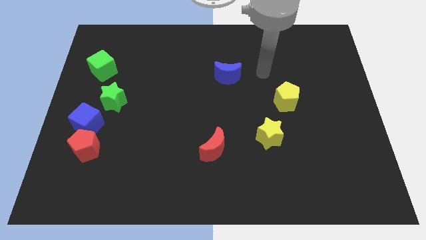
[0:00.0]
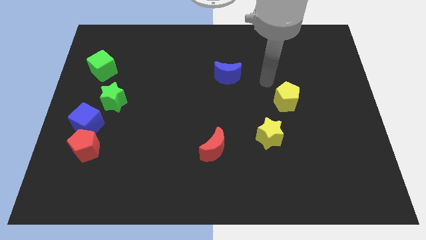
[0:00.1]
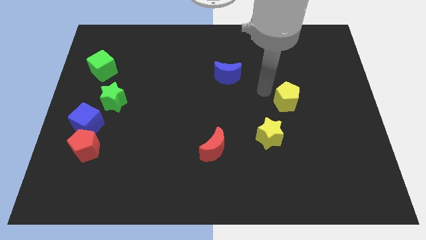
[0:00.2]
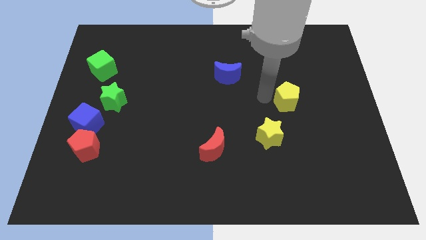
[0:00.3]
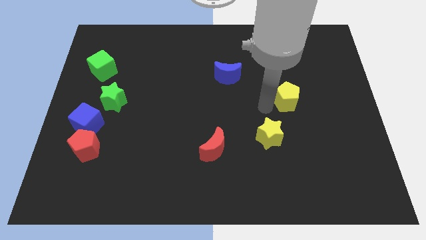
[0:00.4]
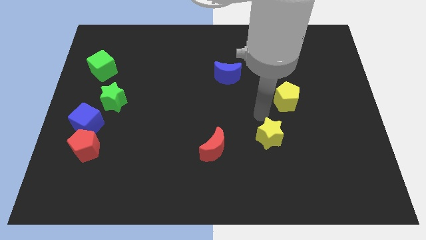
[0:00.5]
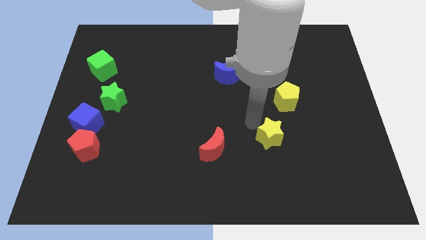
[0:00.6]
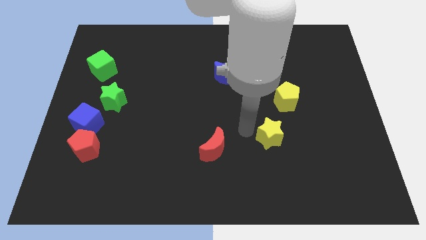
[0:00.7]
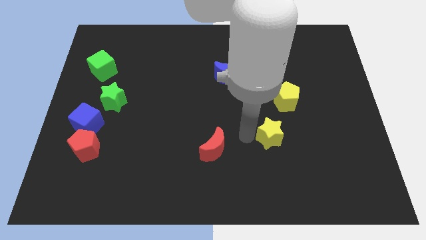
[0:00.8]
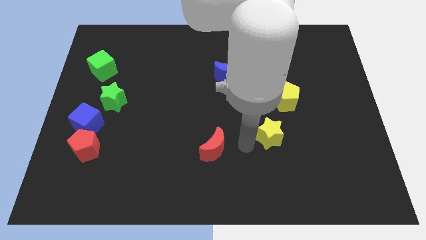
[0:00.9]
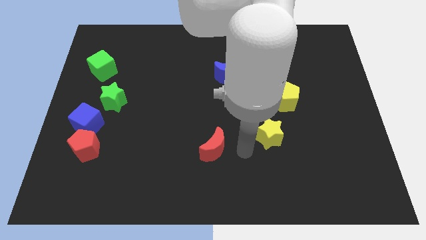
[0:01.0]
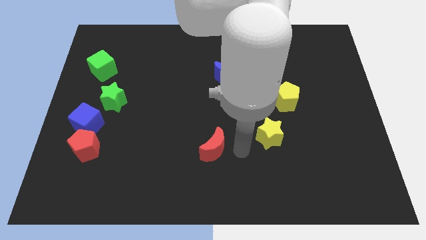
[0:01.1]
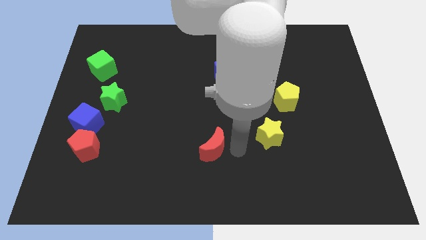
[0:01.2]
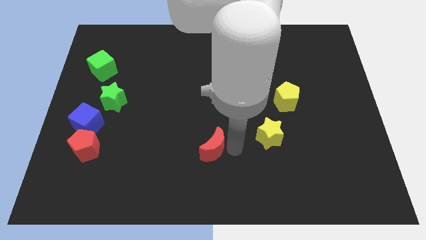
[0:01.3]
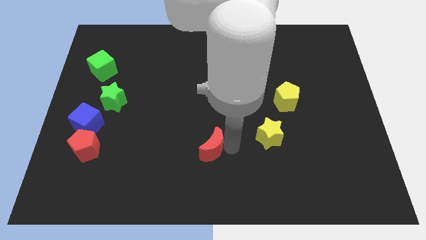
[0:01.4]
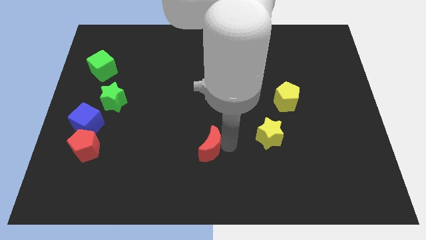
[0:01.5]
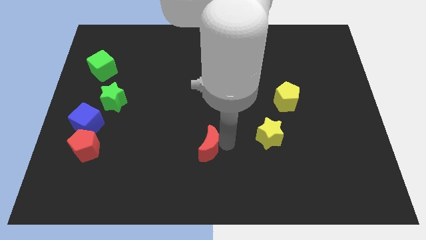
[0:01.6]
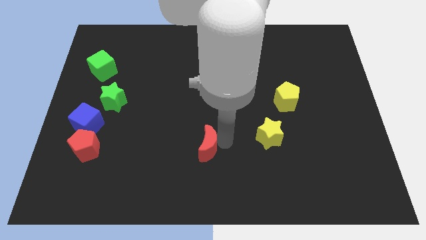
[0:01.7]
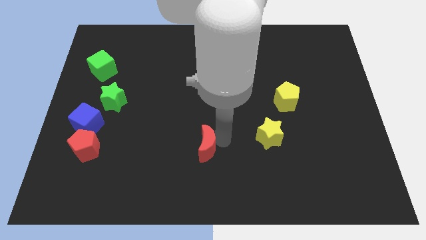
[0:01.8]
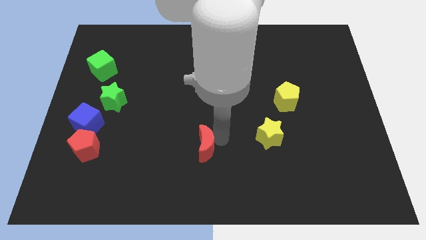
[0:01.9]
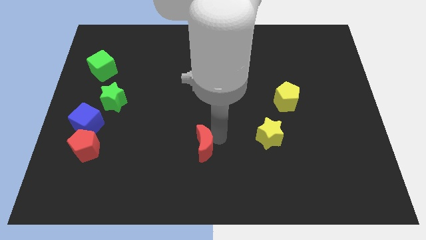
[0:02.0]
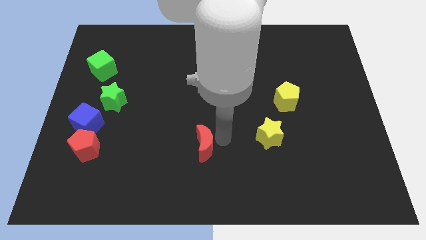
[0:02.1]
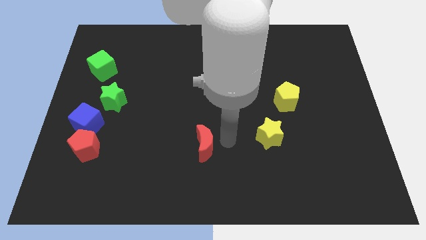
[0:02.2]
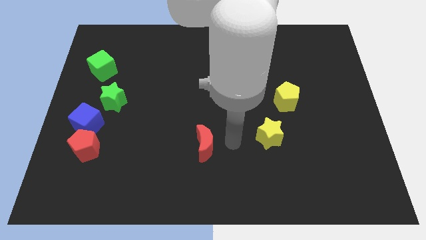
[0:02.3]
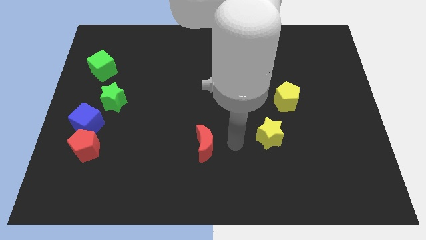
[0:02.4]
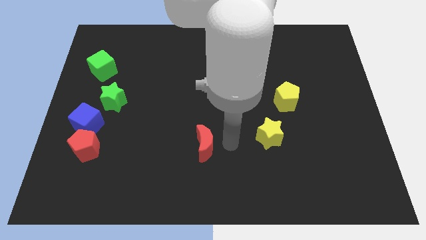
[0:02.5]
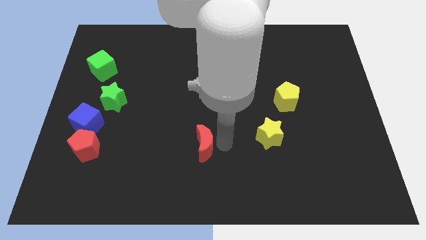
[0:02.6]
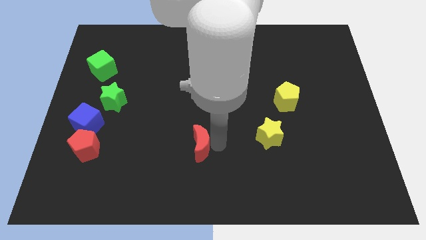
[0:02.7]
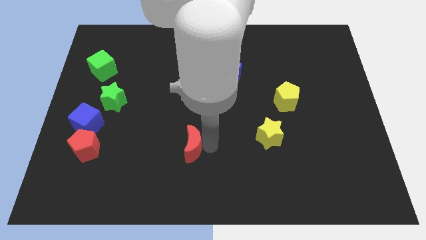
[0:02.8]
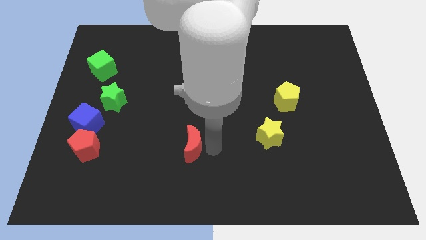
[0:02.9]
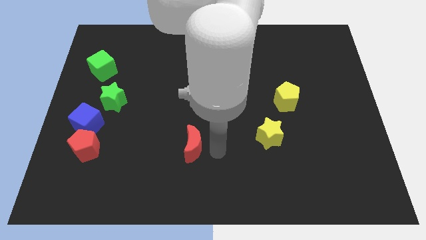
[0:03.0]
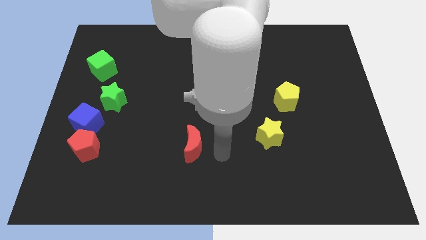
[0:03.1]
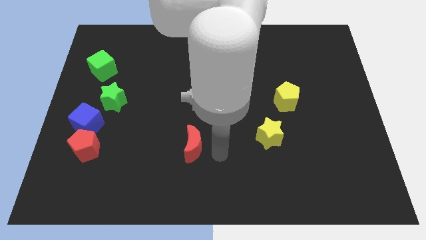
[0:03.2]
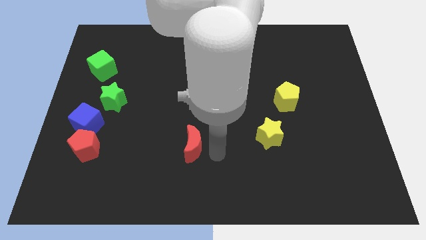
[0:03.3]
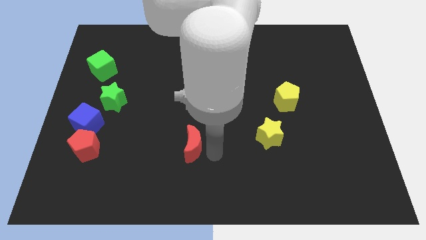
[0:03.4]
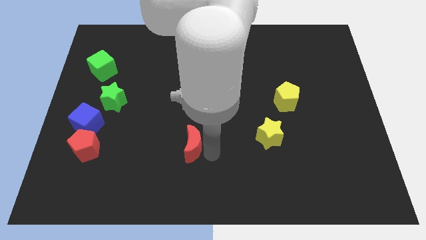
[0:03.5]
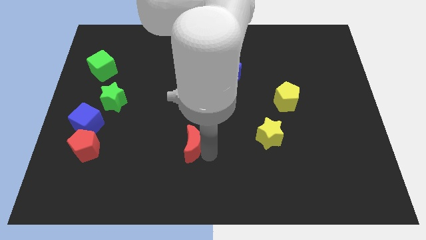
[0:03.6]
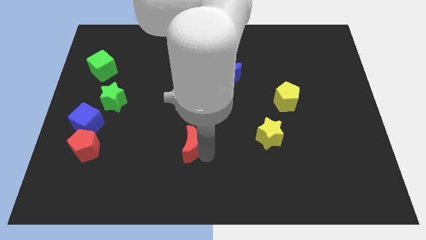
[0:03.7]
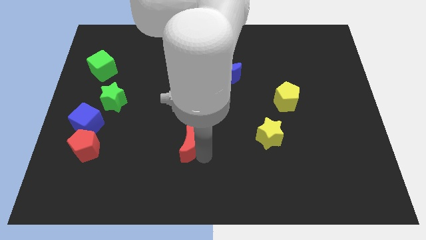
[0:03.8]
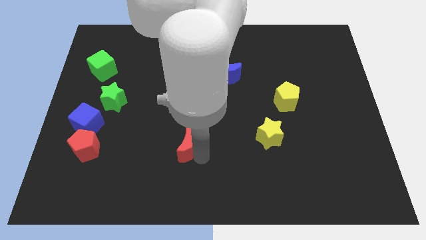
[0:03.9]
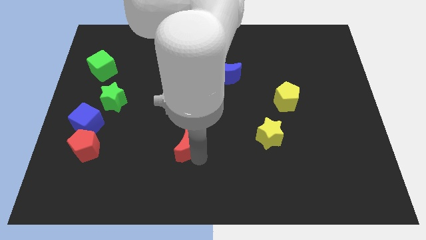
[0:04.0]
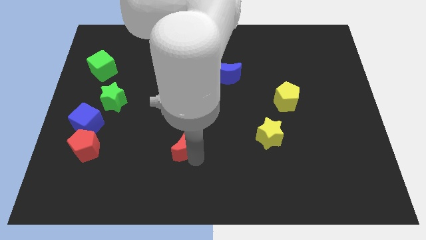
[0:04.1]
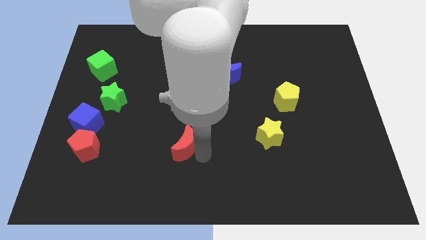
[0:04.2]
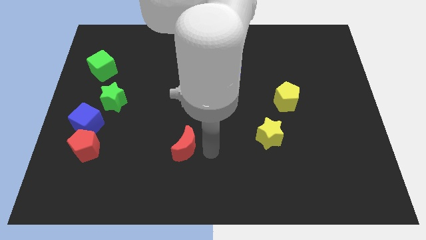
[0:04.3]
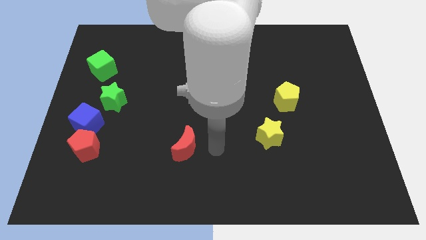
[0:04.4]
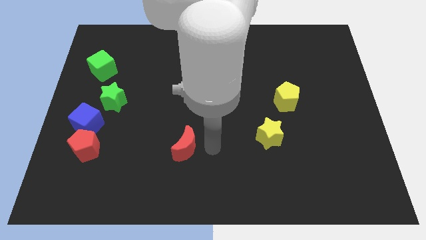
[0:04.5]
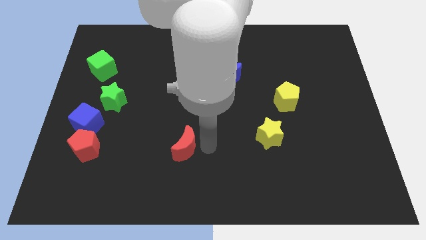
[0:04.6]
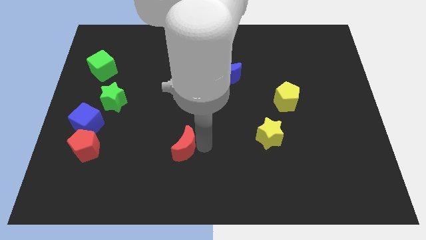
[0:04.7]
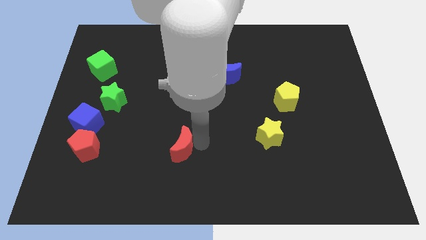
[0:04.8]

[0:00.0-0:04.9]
slide the red moon to the left a bit

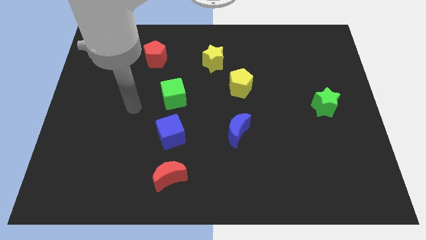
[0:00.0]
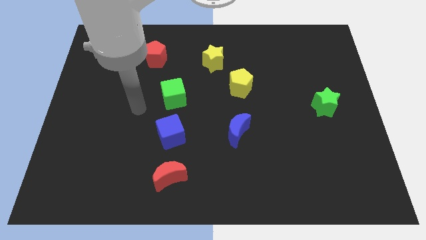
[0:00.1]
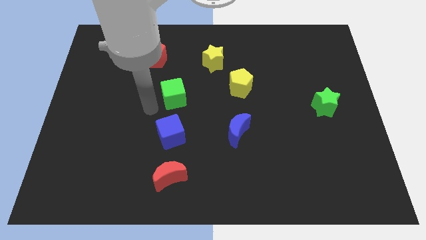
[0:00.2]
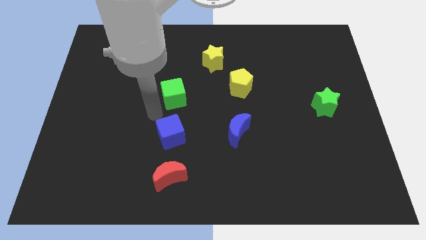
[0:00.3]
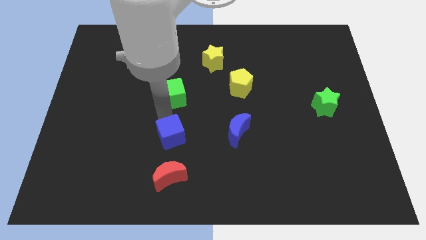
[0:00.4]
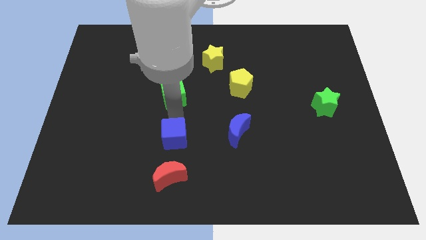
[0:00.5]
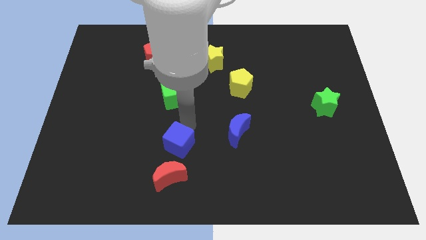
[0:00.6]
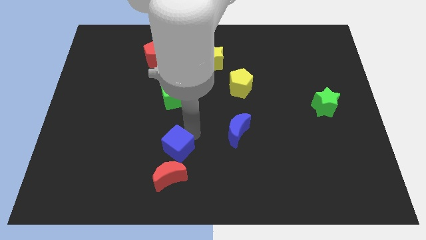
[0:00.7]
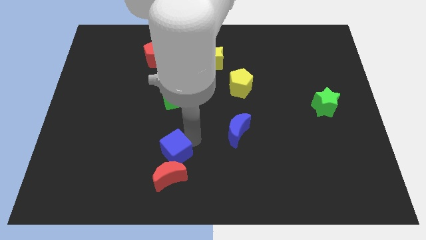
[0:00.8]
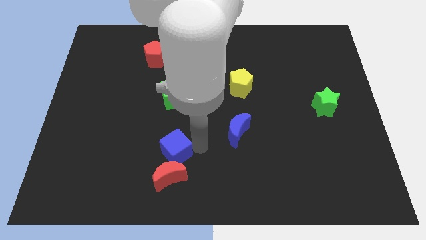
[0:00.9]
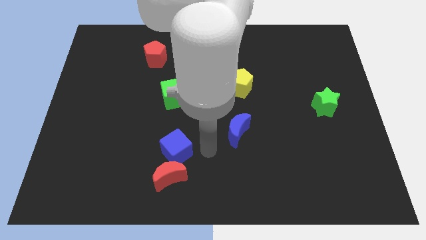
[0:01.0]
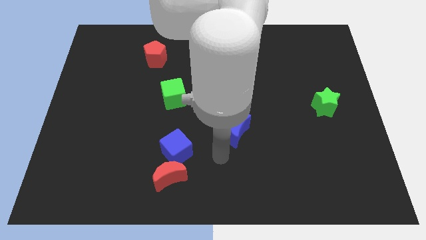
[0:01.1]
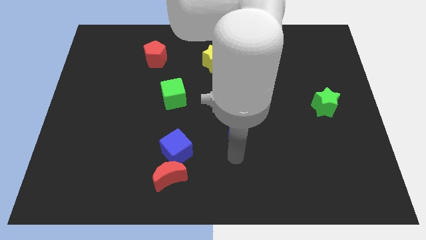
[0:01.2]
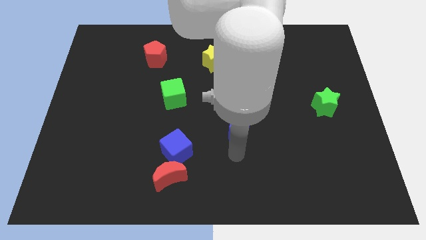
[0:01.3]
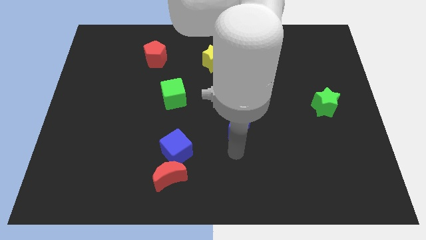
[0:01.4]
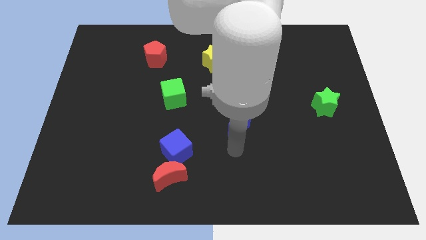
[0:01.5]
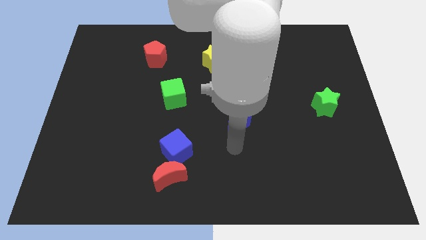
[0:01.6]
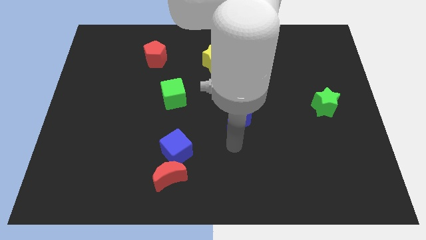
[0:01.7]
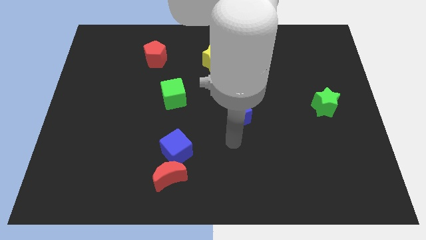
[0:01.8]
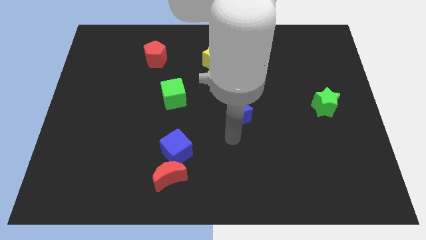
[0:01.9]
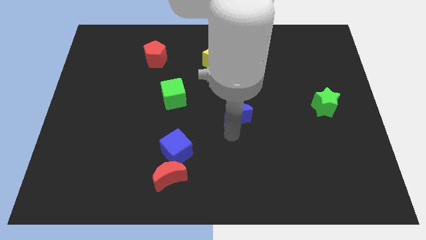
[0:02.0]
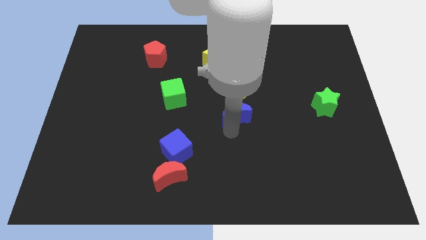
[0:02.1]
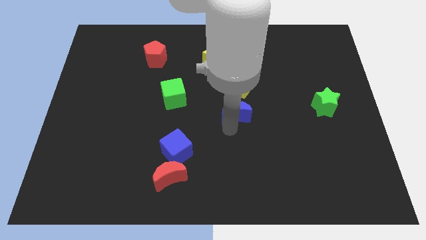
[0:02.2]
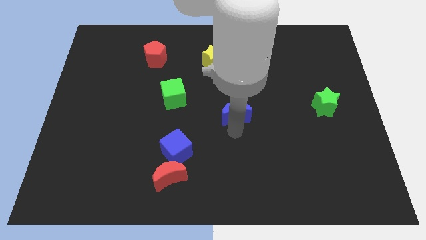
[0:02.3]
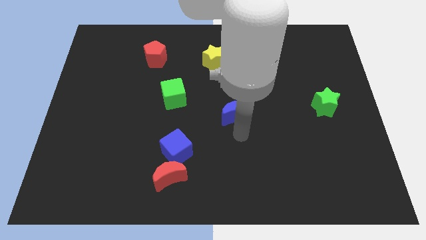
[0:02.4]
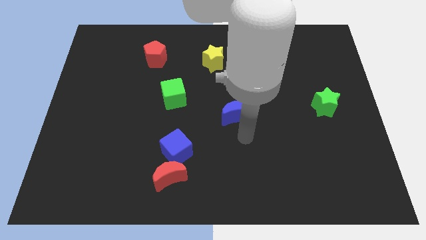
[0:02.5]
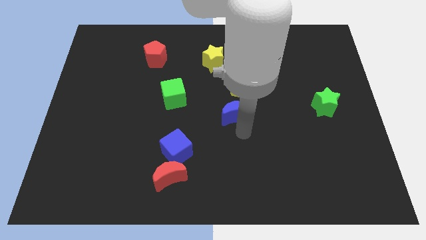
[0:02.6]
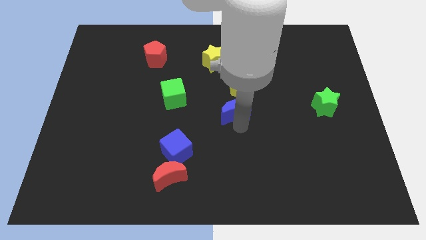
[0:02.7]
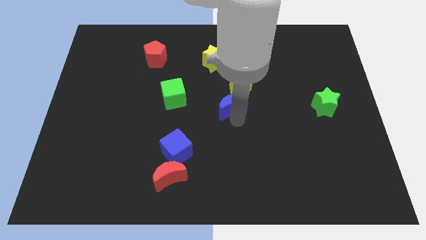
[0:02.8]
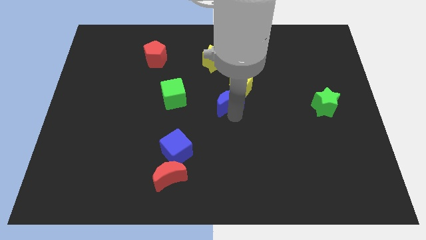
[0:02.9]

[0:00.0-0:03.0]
slightly slide the blue moon up

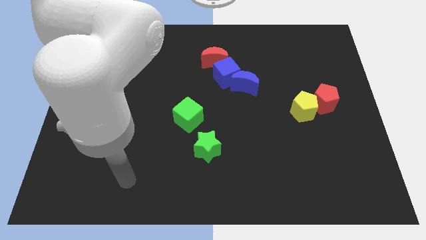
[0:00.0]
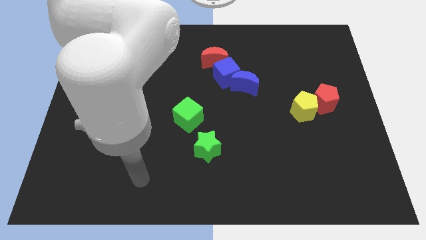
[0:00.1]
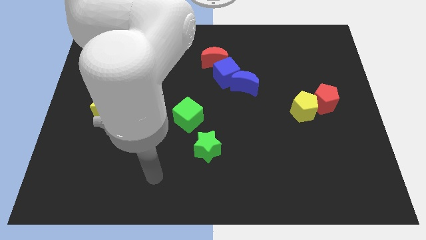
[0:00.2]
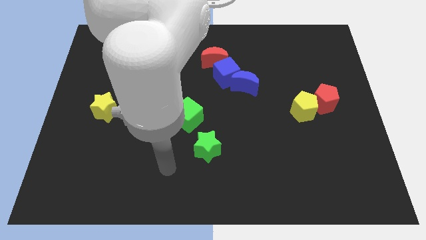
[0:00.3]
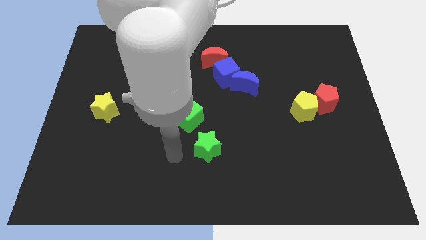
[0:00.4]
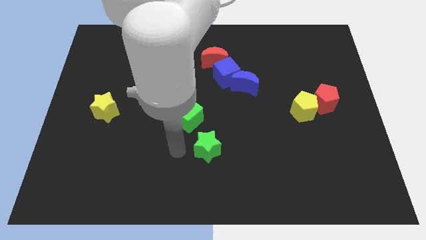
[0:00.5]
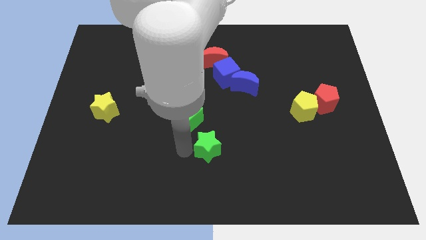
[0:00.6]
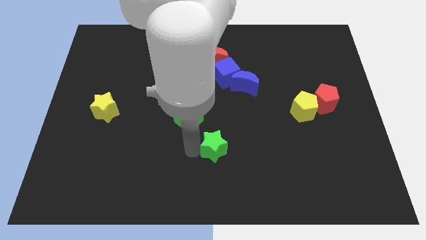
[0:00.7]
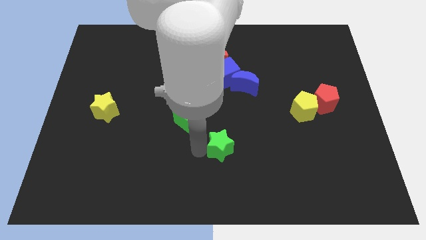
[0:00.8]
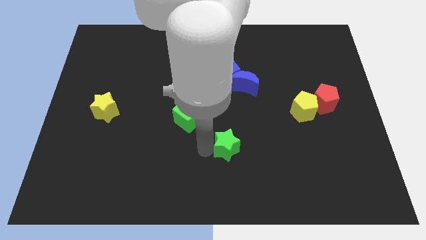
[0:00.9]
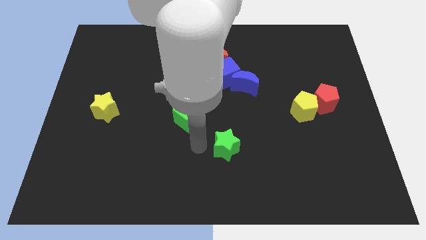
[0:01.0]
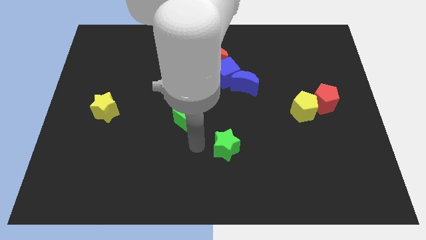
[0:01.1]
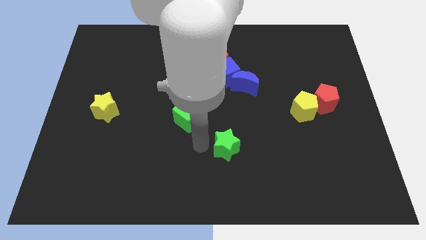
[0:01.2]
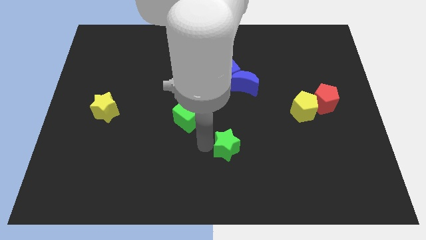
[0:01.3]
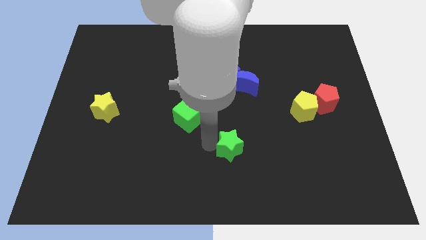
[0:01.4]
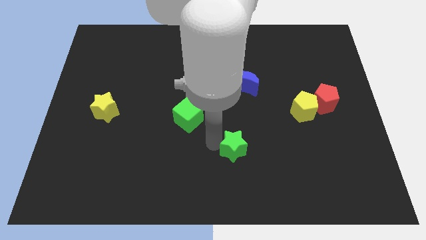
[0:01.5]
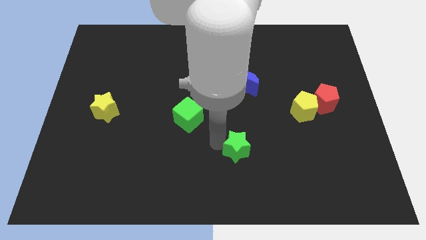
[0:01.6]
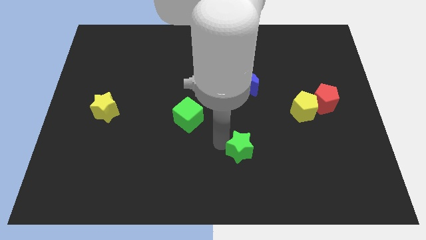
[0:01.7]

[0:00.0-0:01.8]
push the green star slightly right
